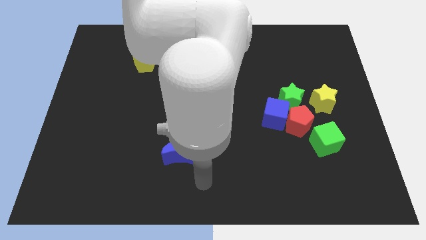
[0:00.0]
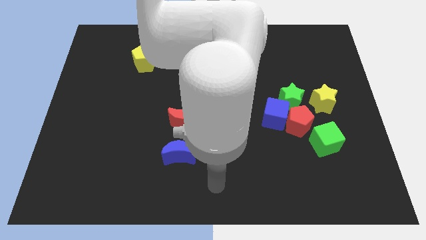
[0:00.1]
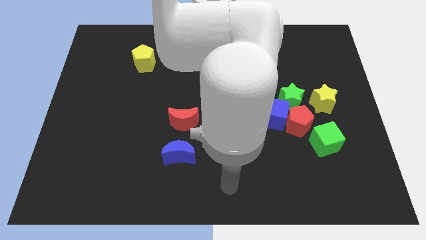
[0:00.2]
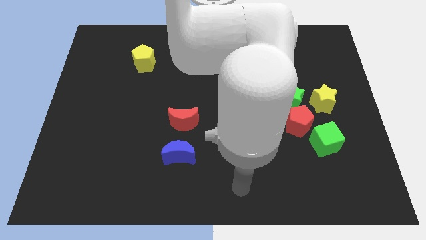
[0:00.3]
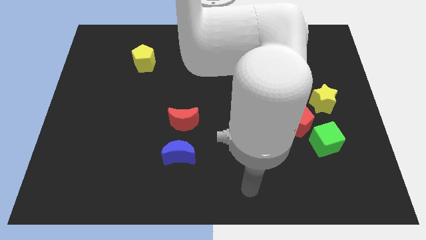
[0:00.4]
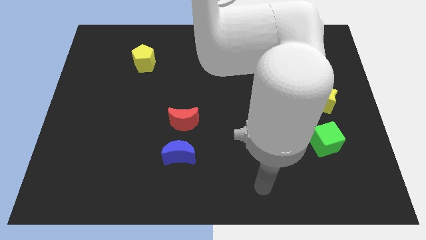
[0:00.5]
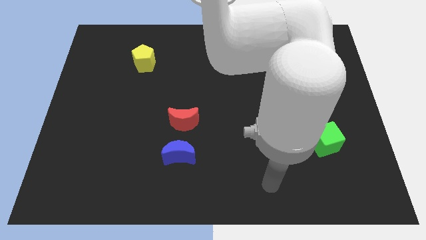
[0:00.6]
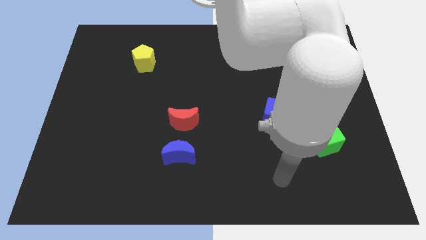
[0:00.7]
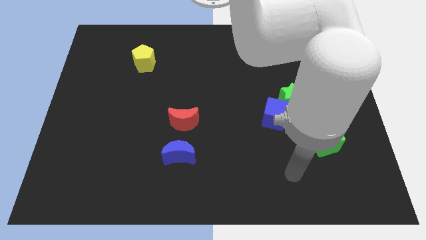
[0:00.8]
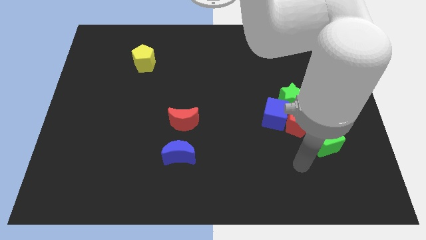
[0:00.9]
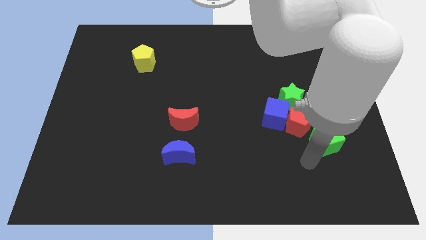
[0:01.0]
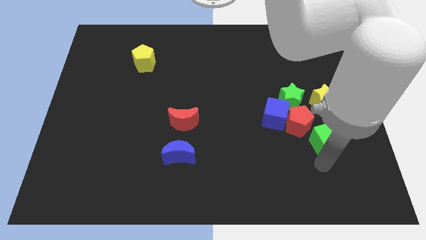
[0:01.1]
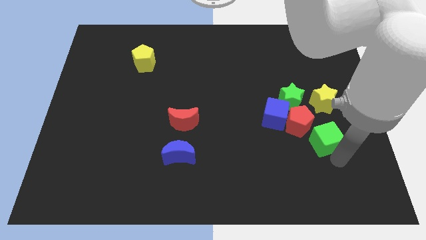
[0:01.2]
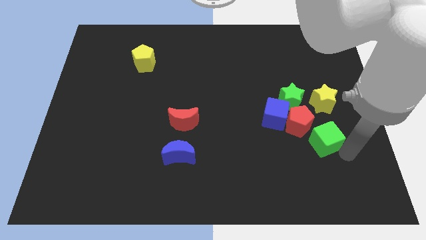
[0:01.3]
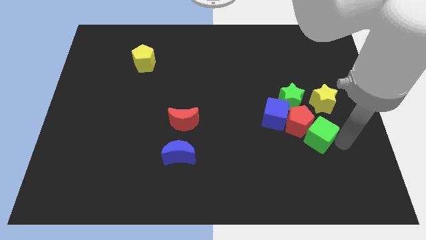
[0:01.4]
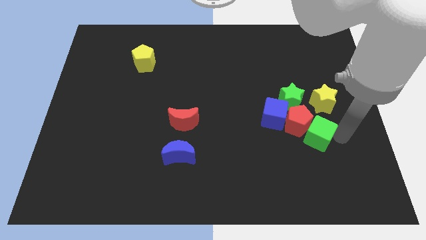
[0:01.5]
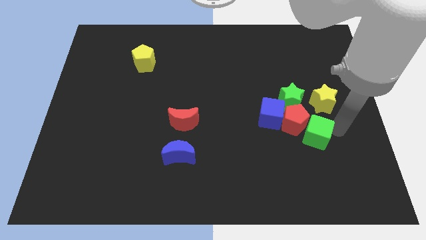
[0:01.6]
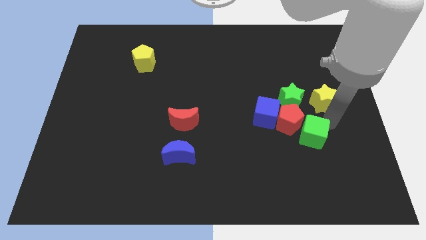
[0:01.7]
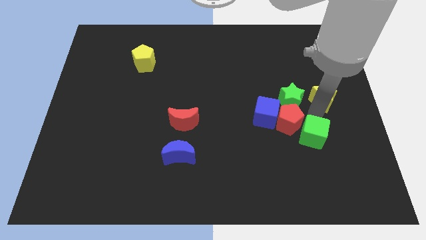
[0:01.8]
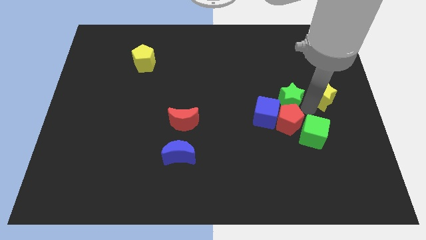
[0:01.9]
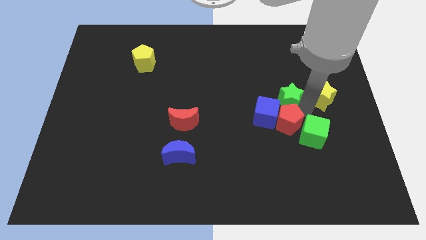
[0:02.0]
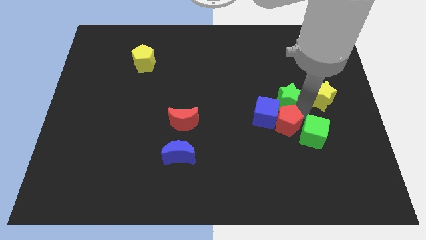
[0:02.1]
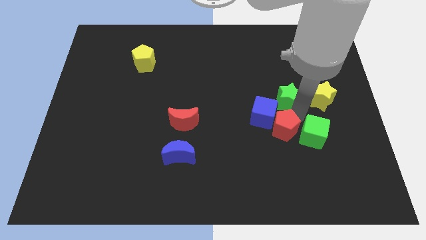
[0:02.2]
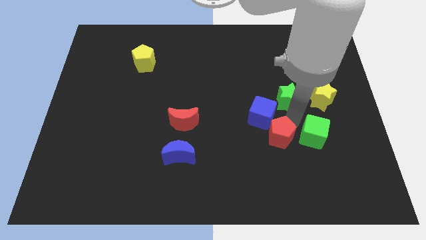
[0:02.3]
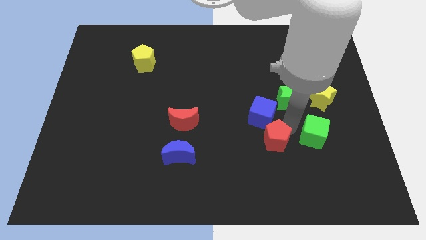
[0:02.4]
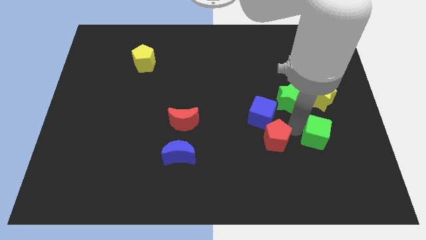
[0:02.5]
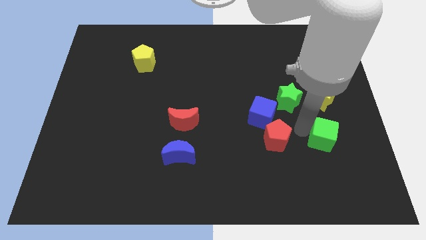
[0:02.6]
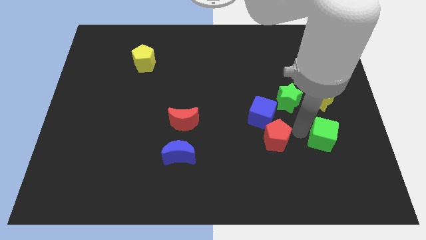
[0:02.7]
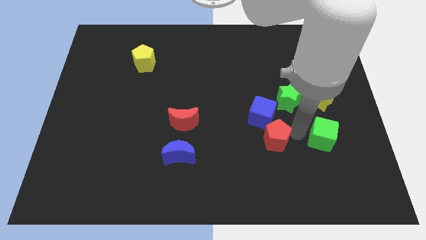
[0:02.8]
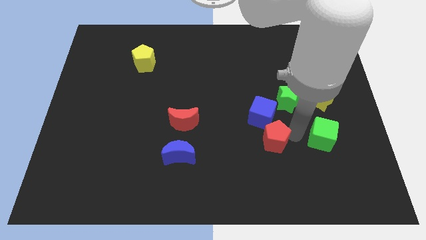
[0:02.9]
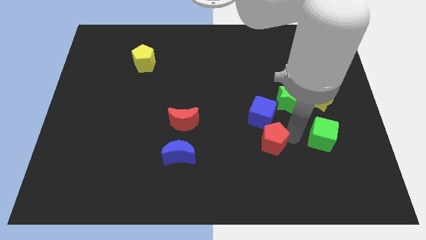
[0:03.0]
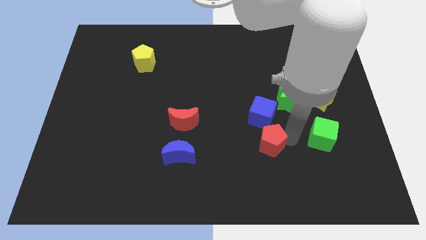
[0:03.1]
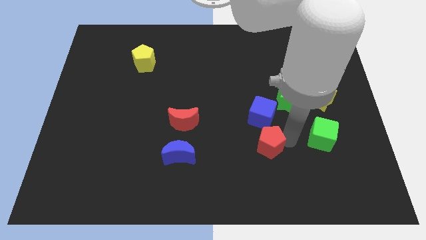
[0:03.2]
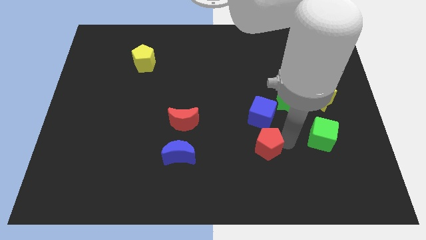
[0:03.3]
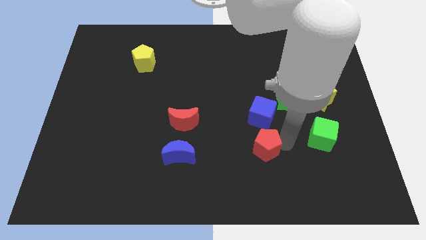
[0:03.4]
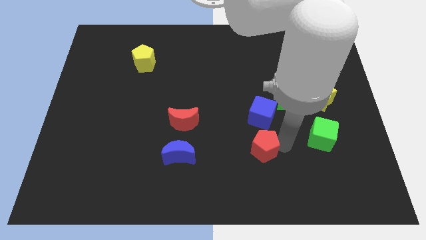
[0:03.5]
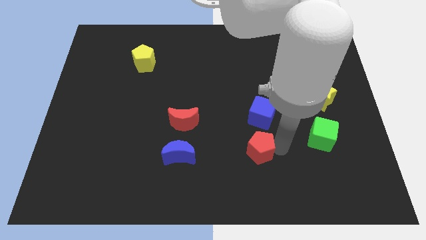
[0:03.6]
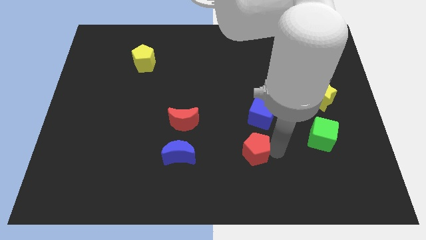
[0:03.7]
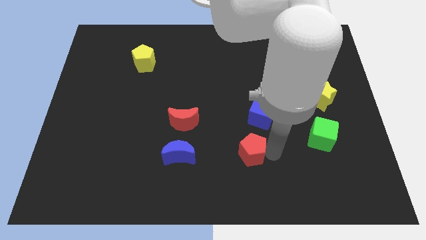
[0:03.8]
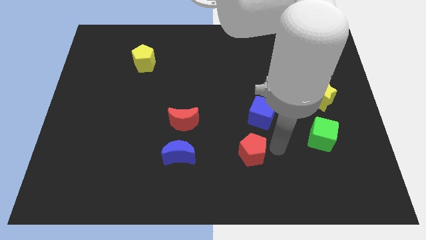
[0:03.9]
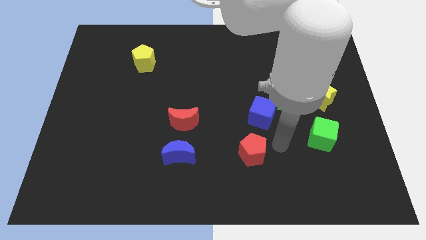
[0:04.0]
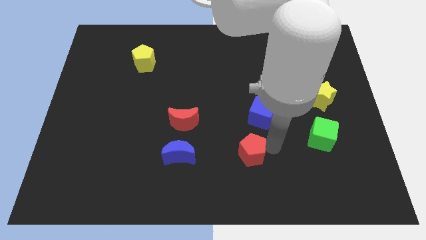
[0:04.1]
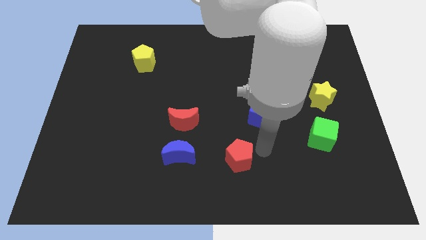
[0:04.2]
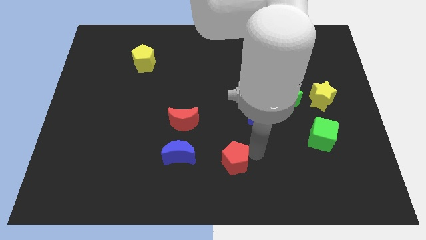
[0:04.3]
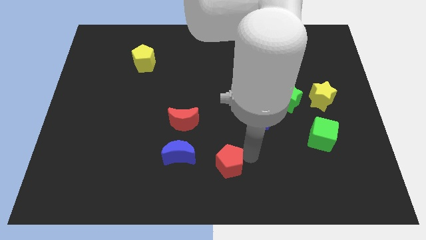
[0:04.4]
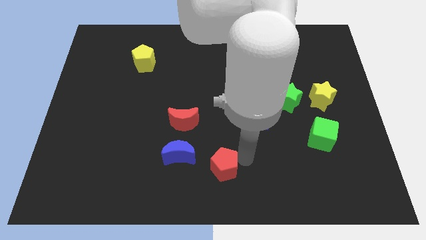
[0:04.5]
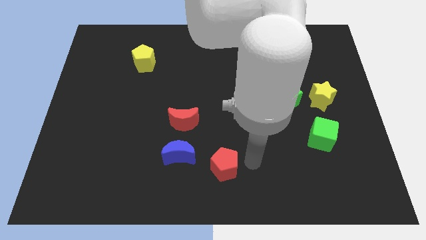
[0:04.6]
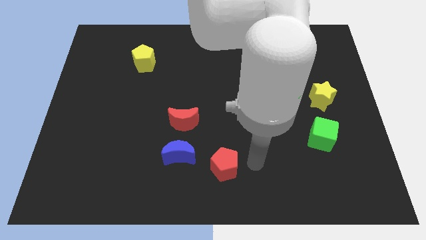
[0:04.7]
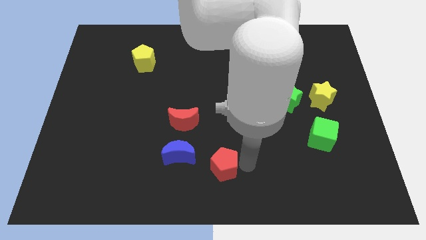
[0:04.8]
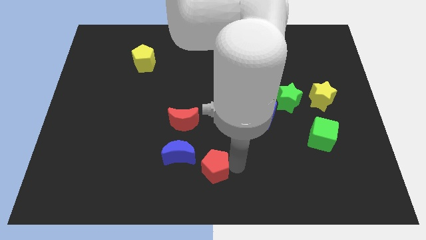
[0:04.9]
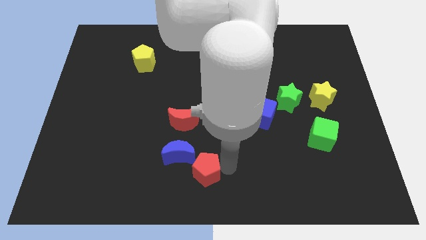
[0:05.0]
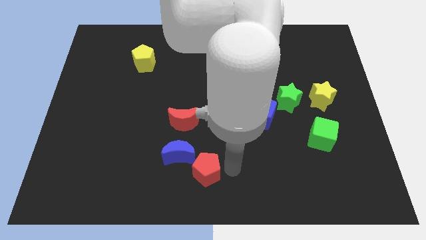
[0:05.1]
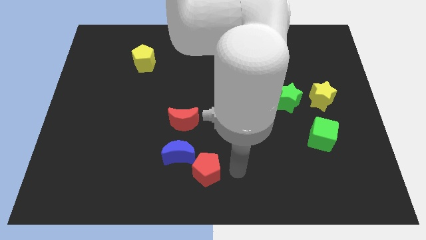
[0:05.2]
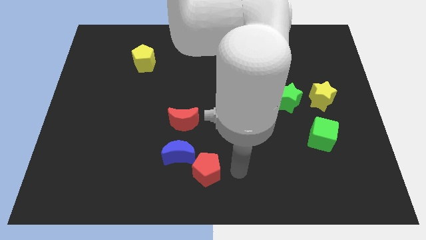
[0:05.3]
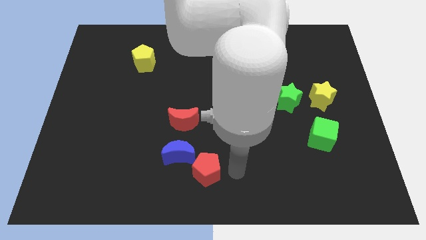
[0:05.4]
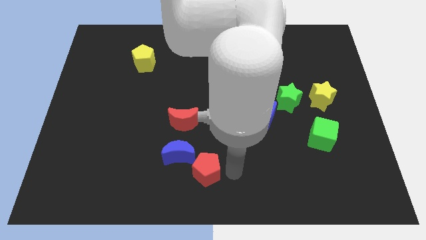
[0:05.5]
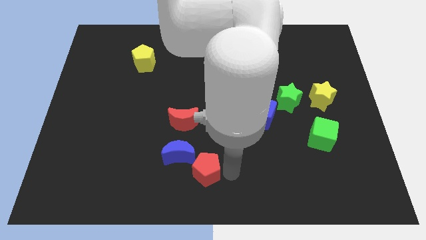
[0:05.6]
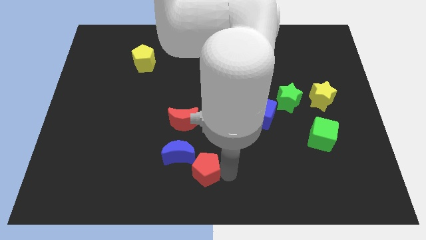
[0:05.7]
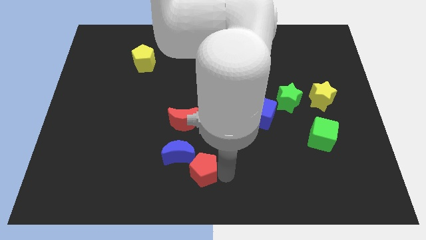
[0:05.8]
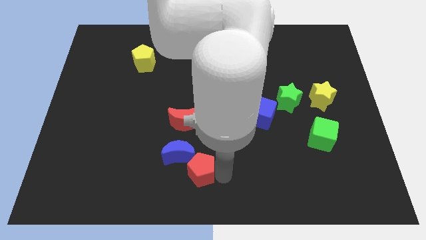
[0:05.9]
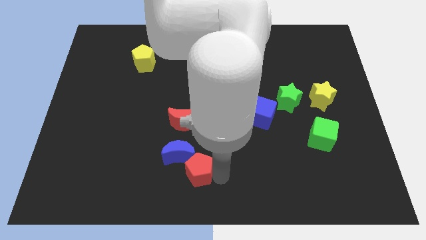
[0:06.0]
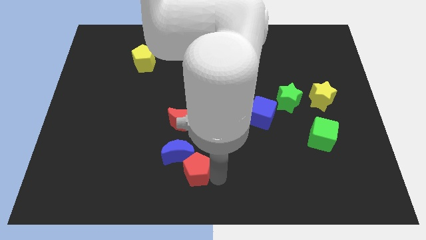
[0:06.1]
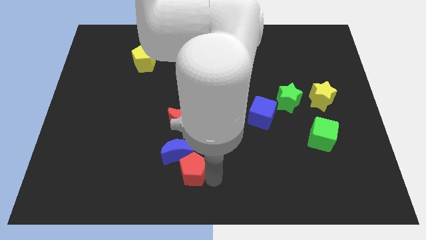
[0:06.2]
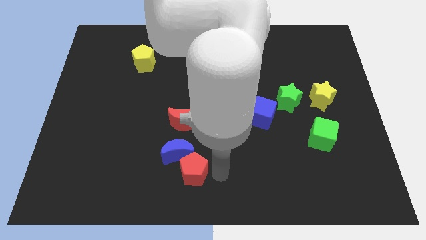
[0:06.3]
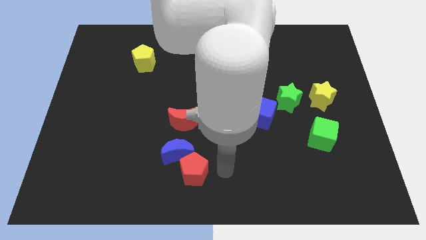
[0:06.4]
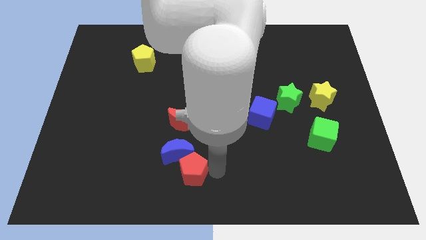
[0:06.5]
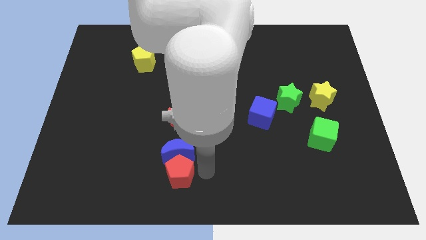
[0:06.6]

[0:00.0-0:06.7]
put the red pentagon to the bottom left side of the blue moon

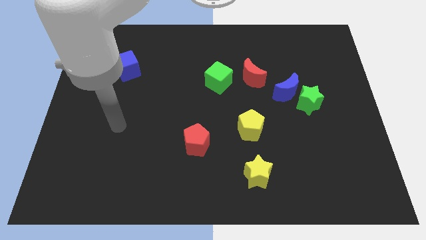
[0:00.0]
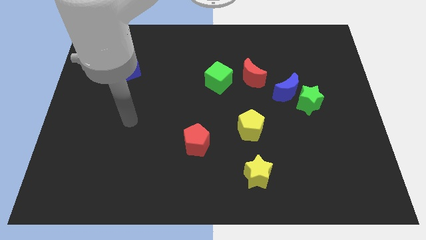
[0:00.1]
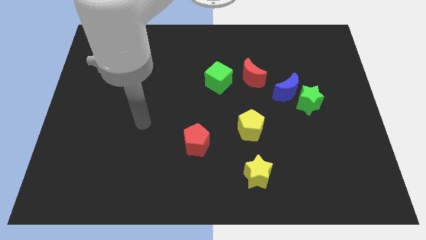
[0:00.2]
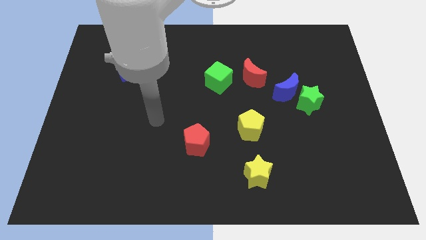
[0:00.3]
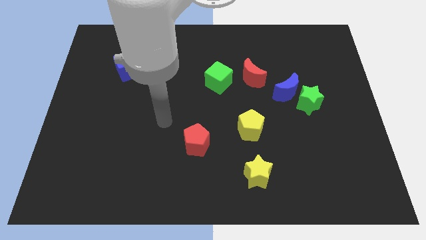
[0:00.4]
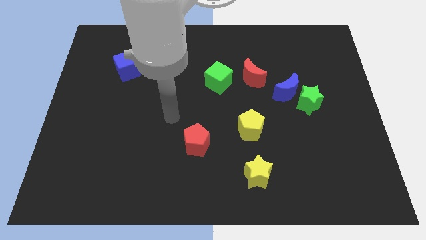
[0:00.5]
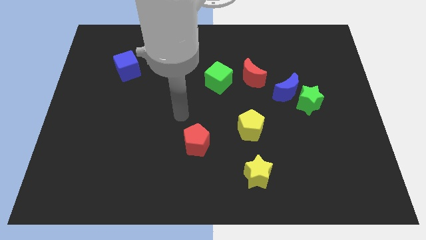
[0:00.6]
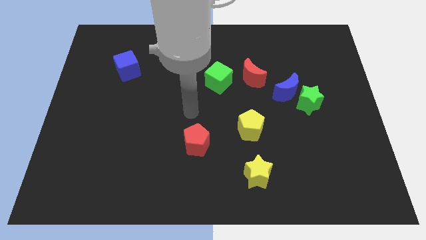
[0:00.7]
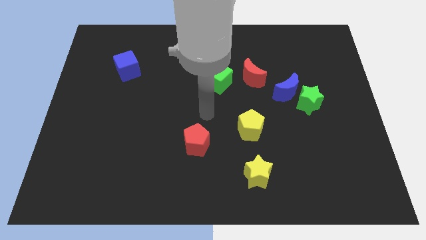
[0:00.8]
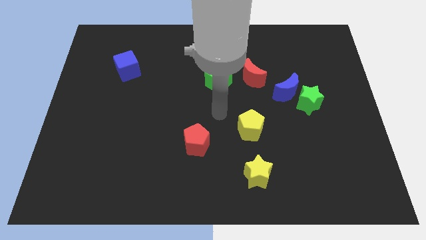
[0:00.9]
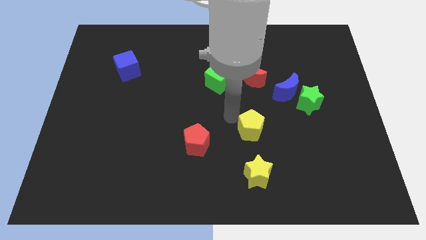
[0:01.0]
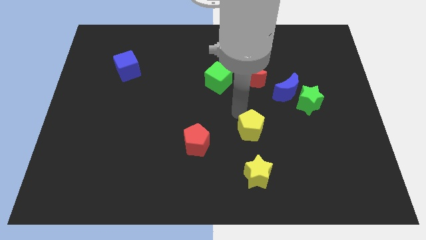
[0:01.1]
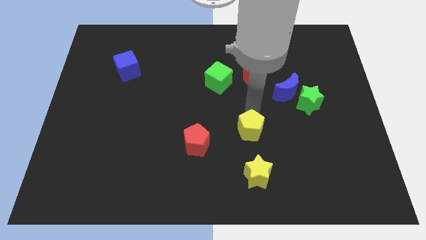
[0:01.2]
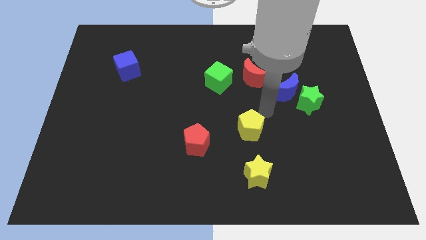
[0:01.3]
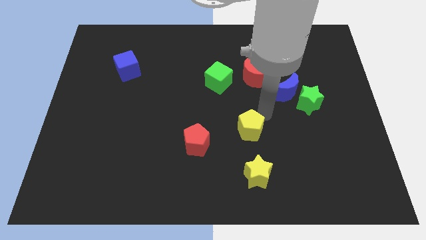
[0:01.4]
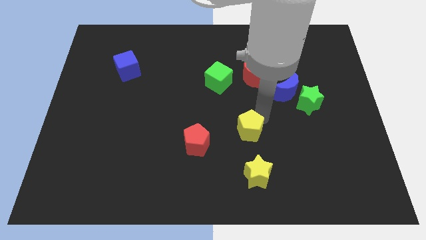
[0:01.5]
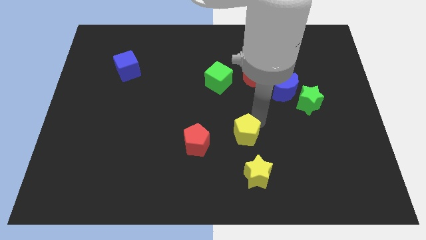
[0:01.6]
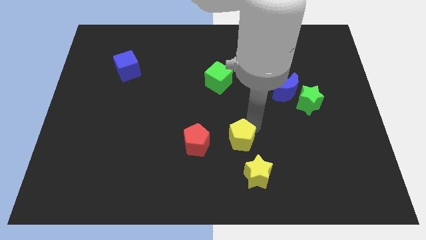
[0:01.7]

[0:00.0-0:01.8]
move the yellow pentagon diagonally up and to the left of the yellow star
